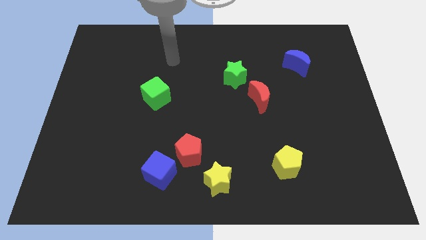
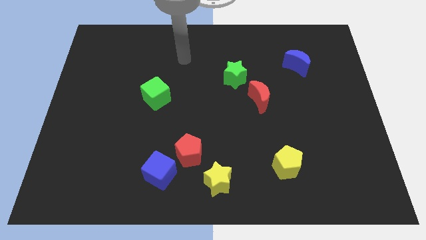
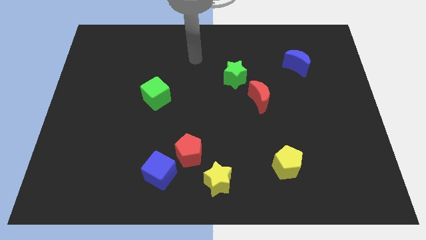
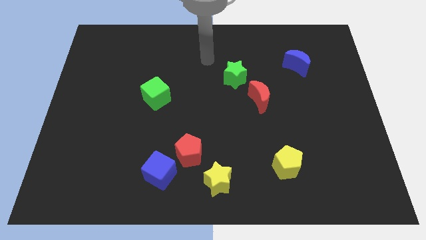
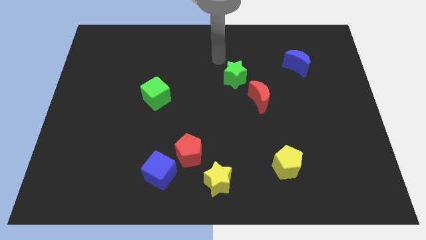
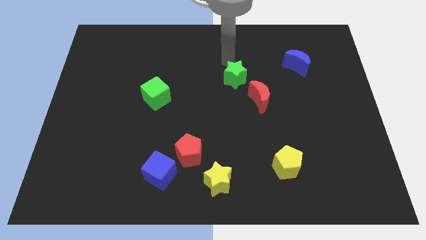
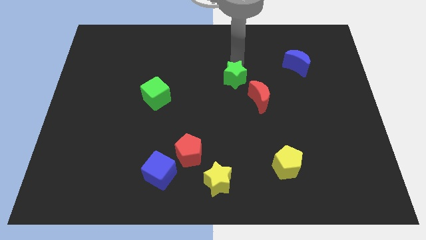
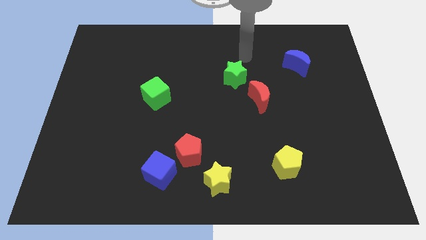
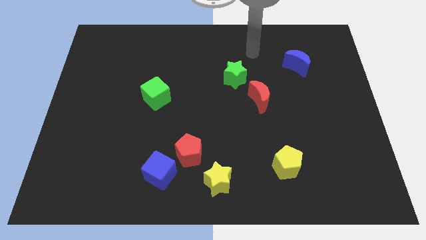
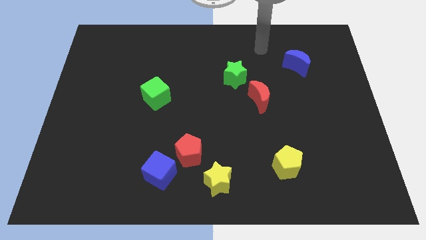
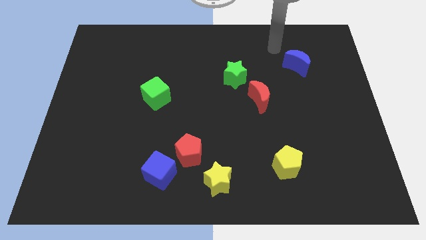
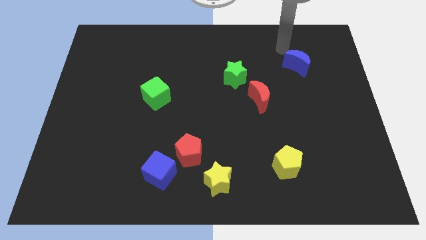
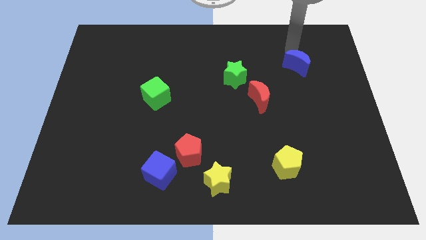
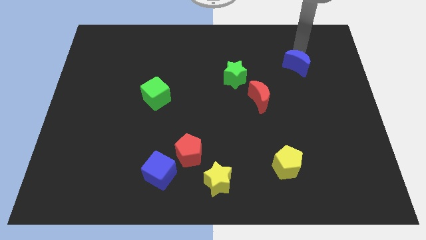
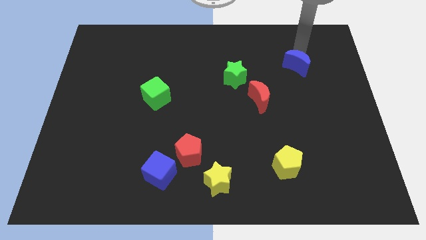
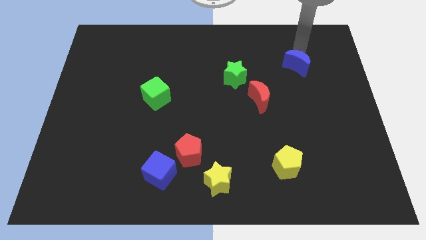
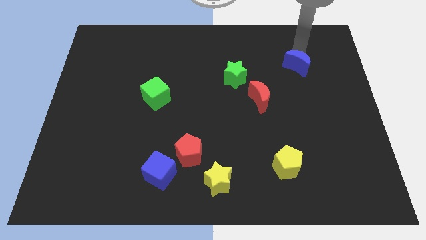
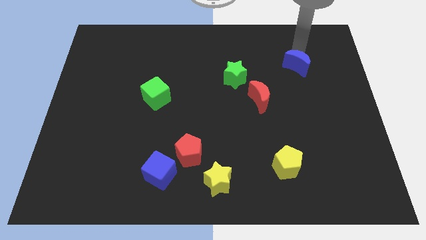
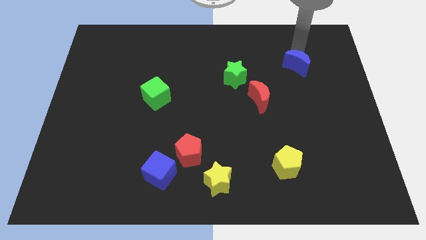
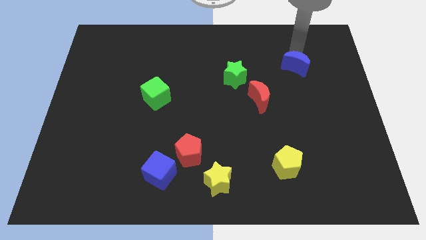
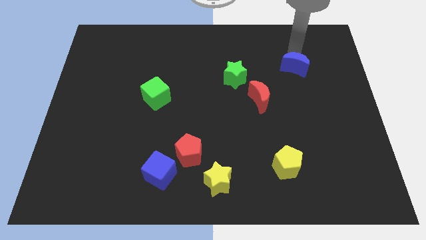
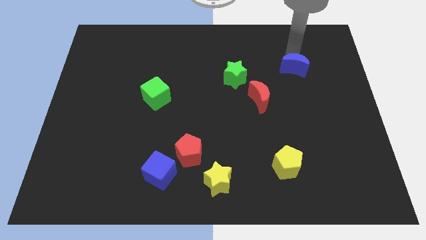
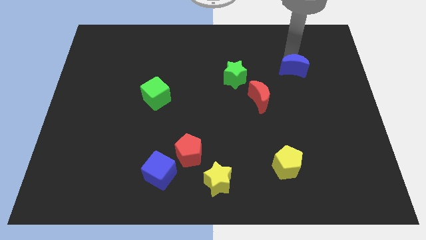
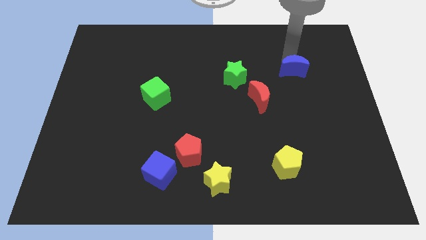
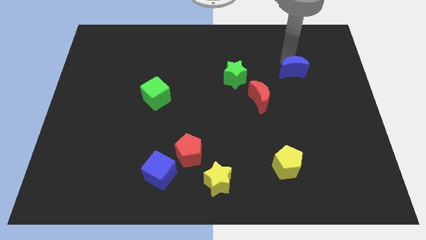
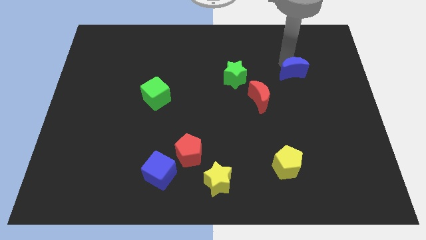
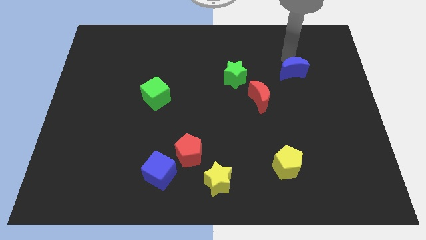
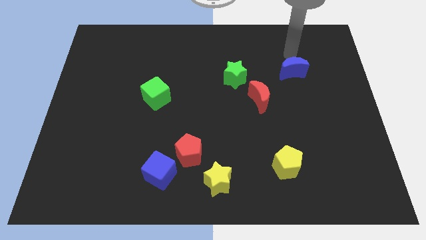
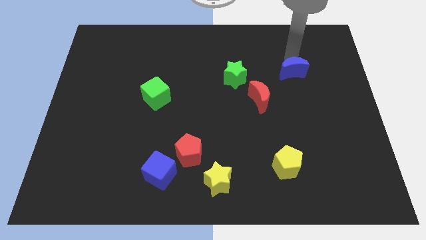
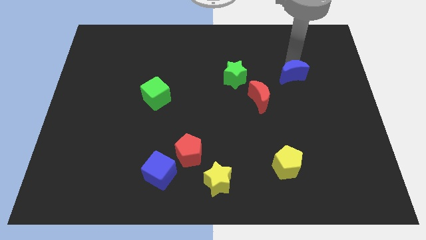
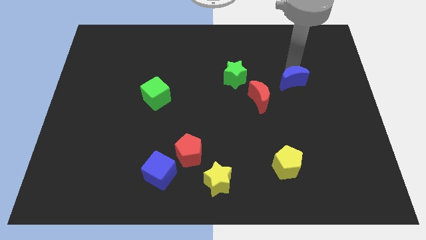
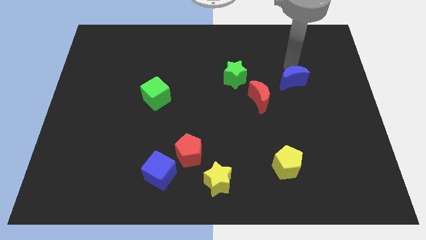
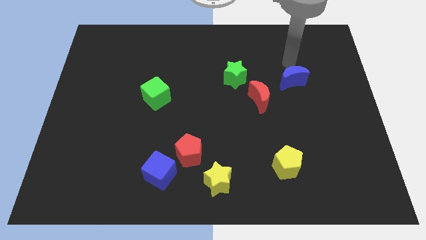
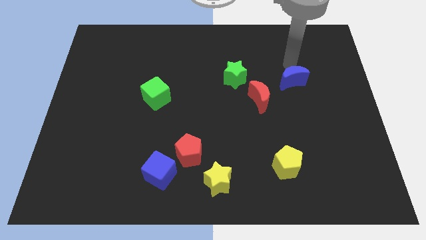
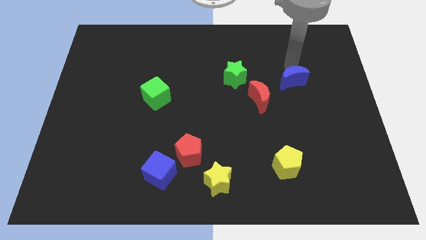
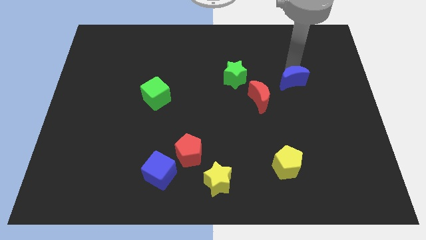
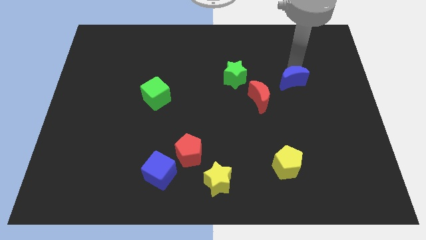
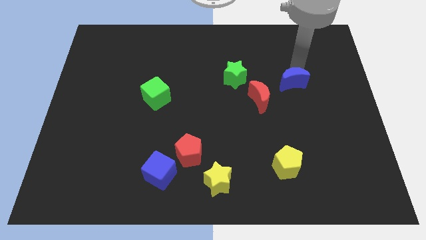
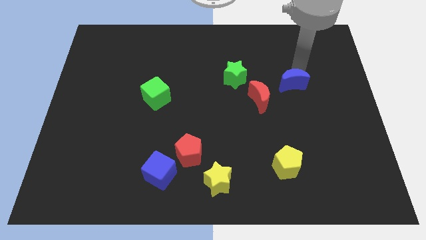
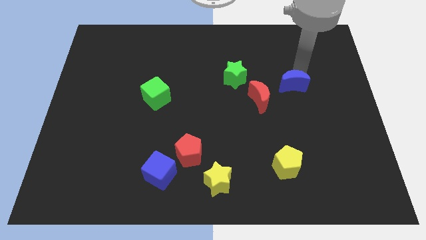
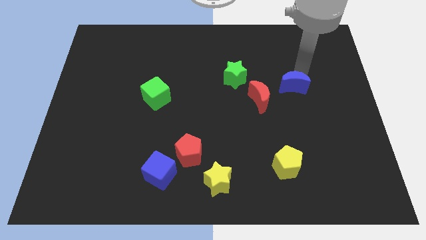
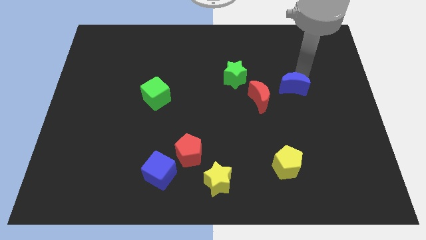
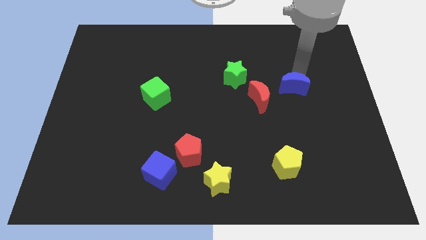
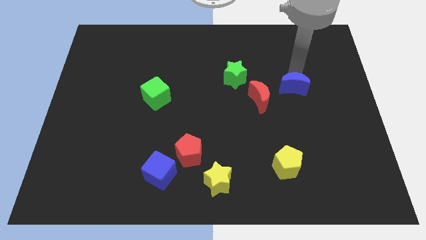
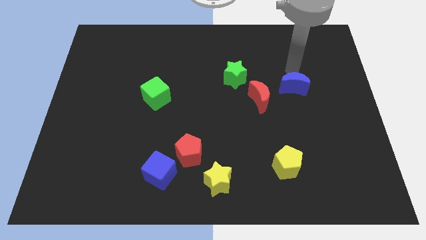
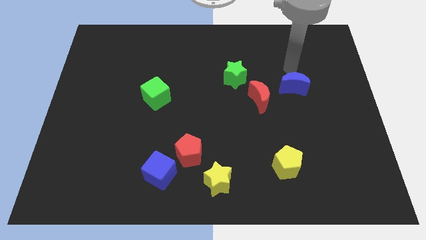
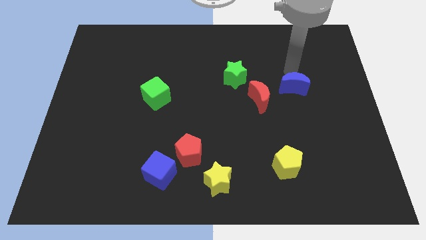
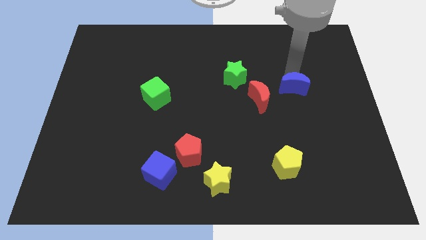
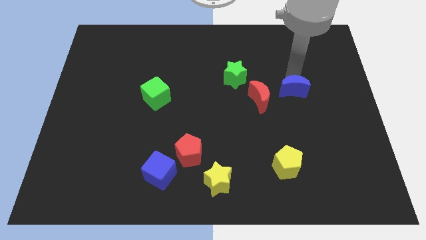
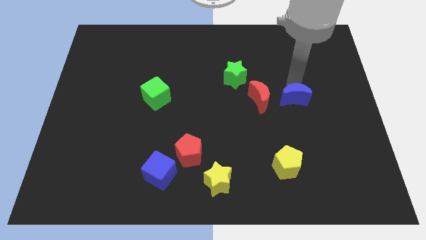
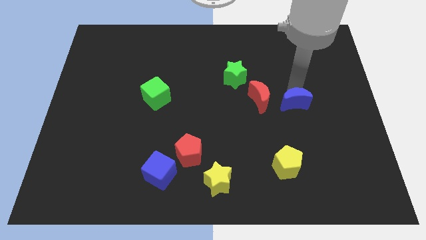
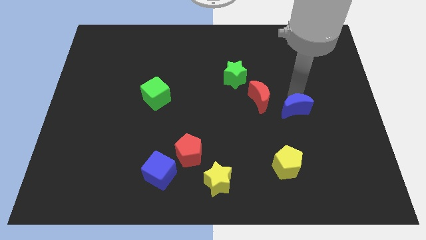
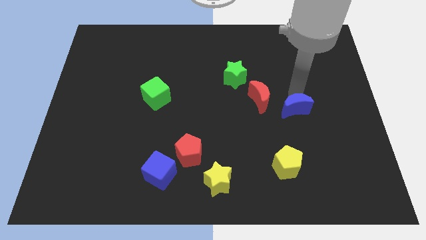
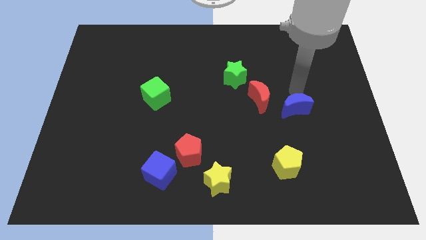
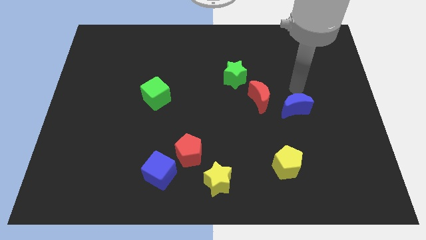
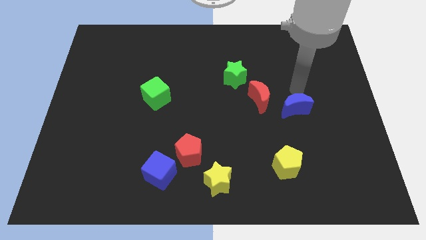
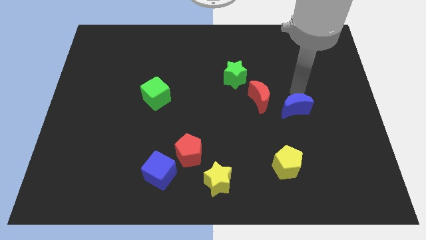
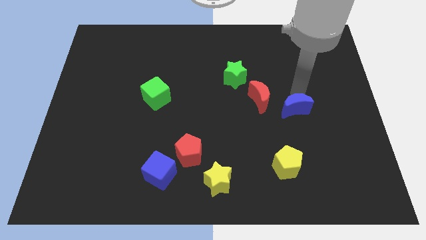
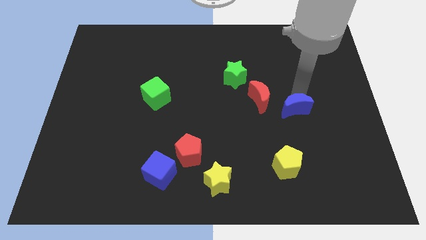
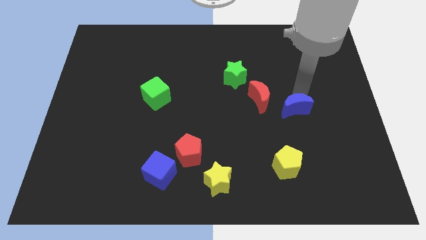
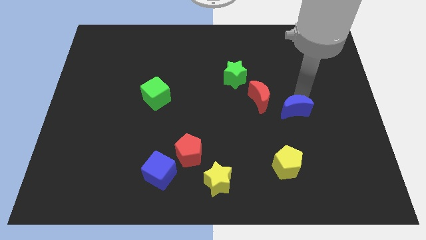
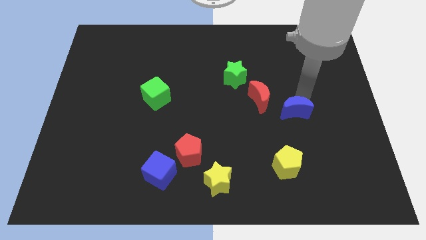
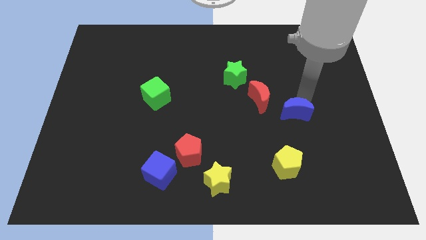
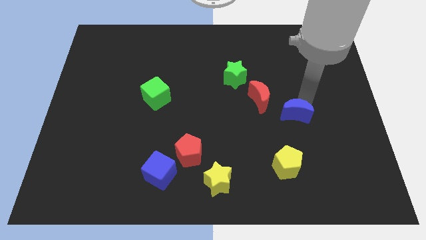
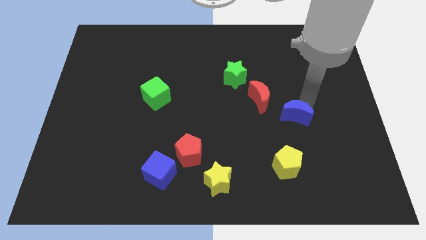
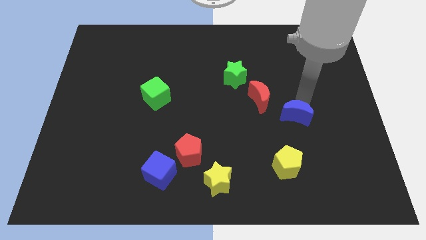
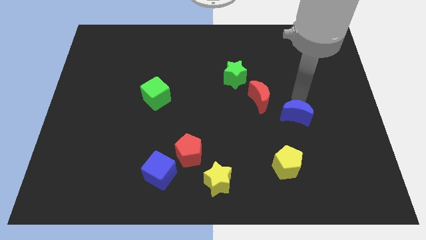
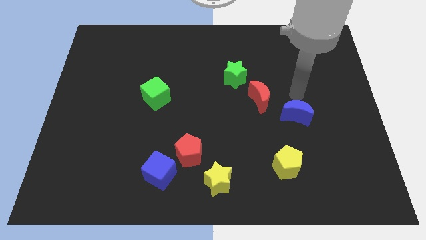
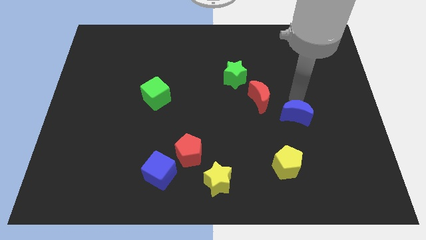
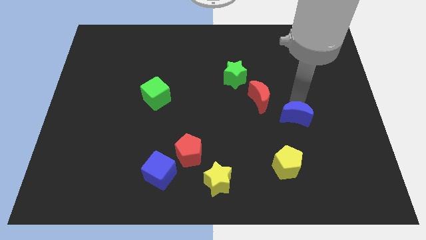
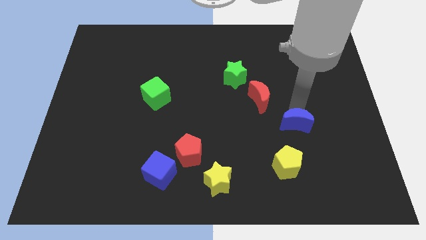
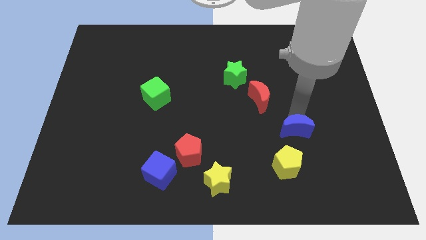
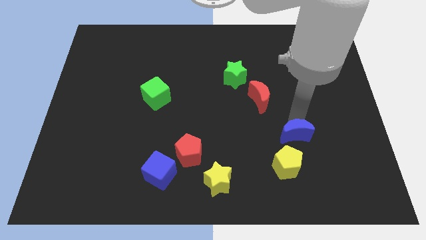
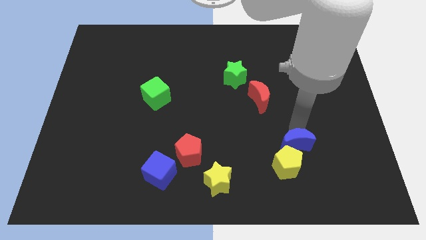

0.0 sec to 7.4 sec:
push the blue moon close to the yellow pentagon

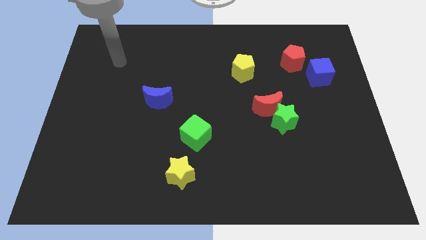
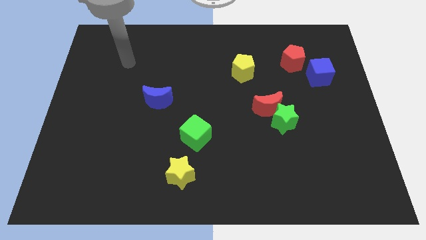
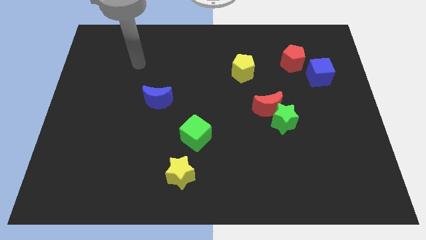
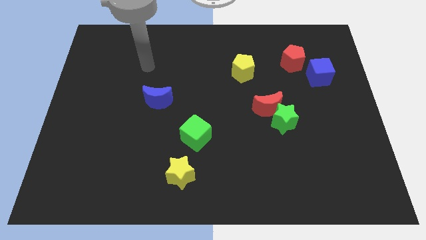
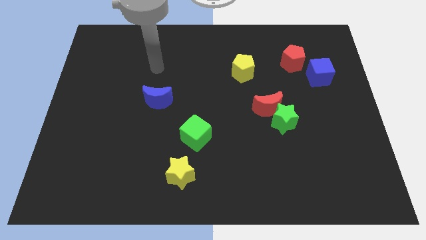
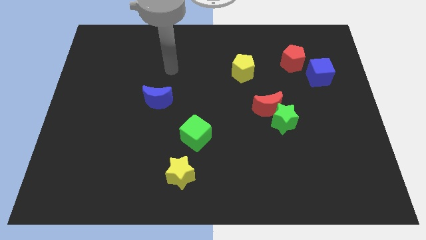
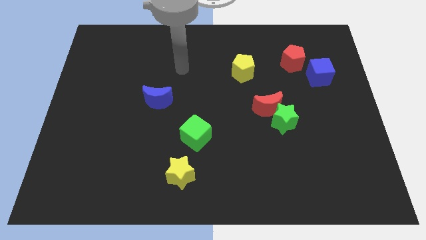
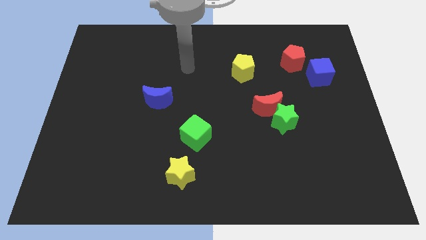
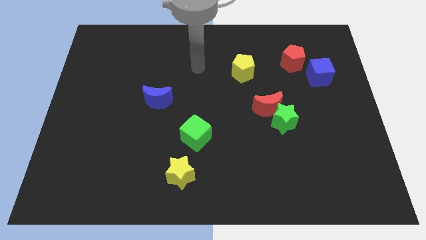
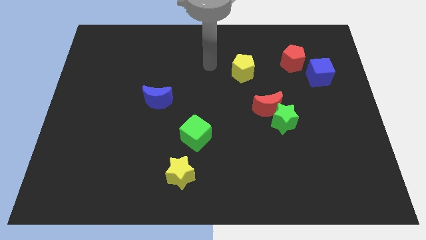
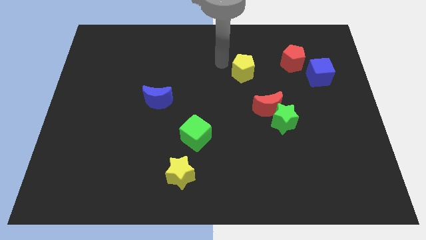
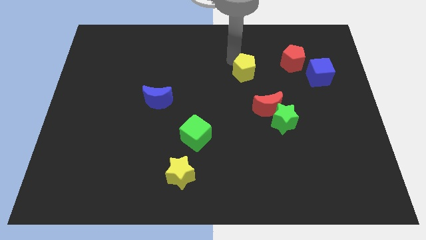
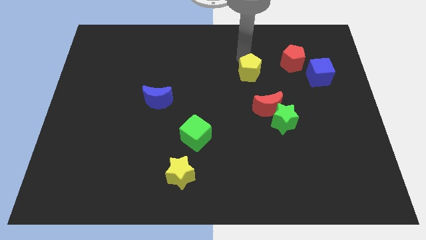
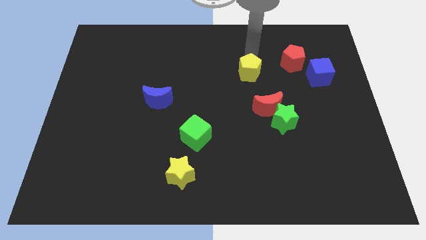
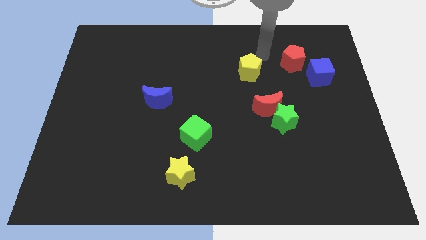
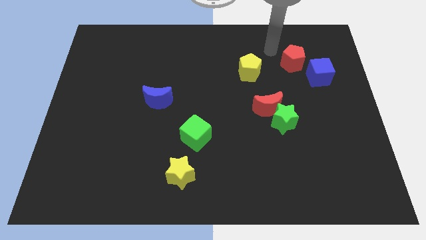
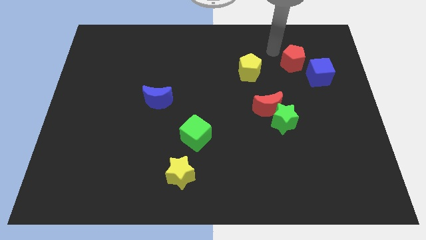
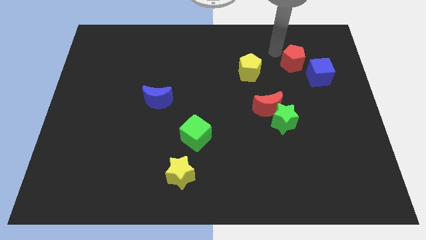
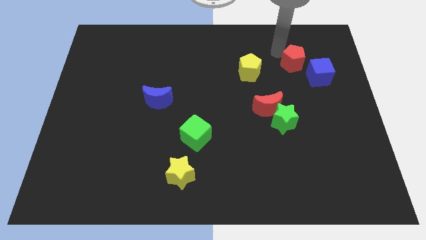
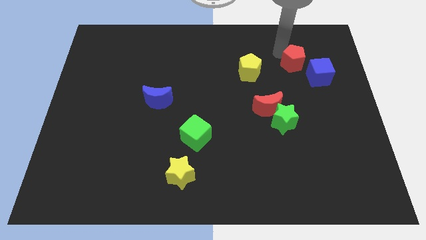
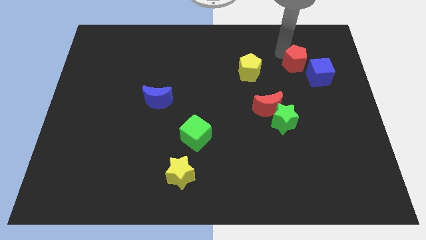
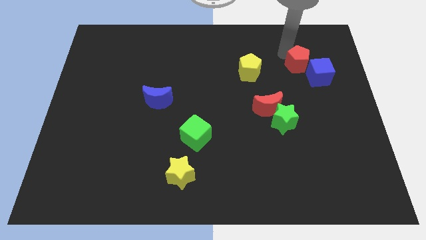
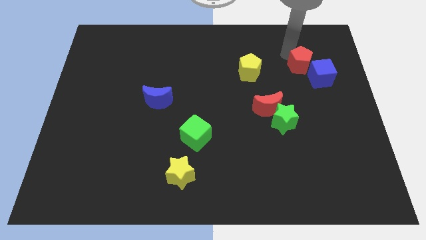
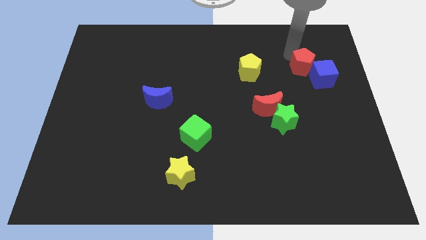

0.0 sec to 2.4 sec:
move the red pentagon to the blue cube
